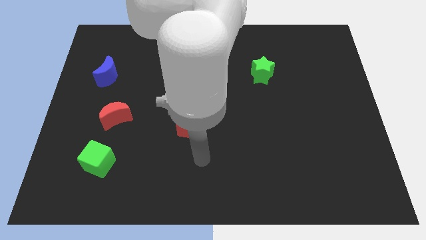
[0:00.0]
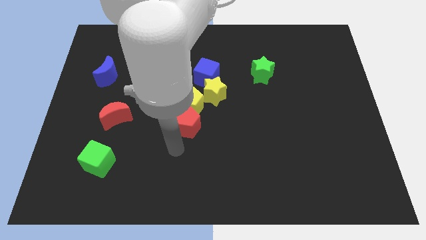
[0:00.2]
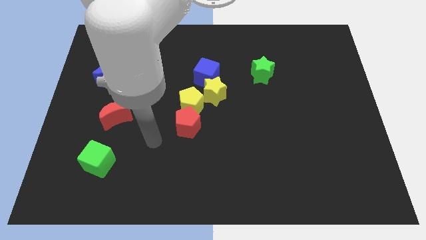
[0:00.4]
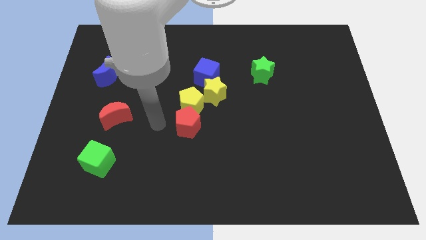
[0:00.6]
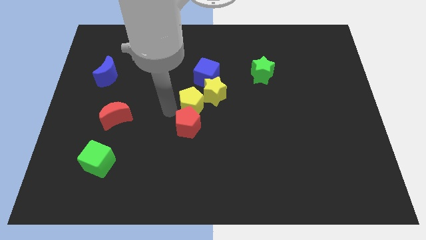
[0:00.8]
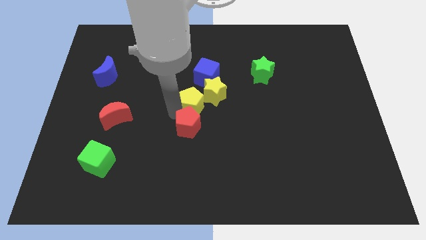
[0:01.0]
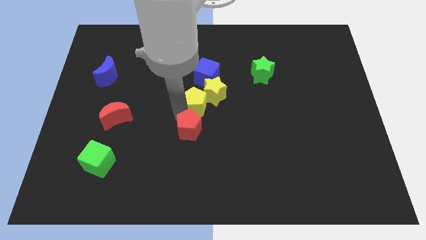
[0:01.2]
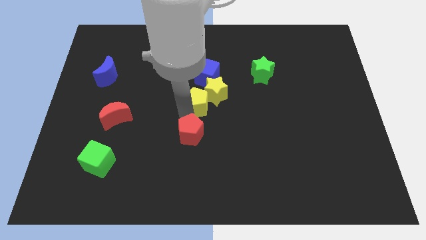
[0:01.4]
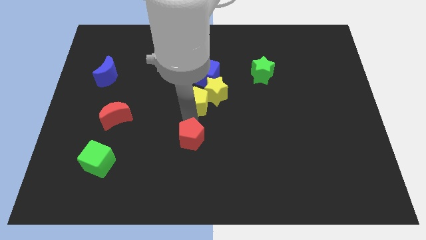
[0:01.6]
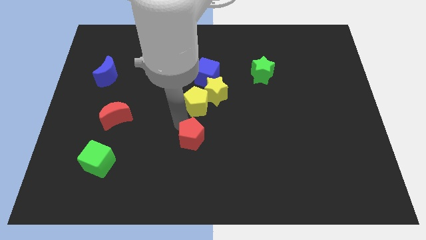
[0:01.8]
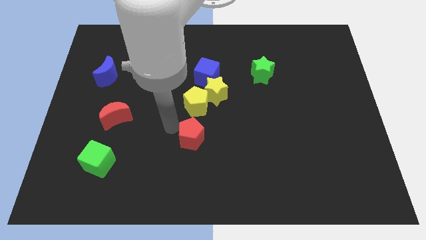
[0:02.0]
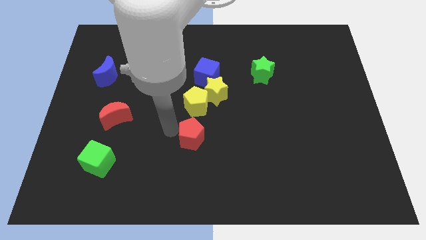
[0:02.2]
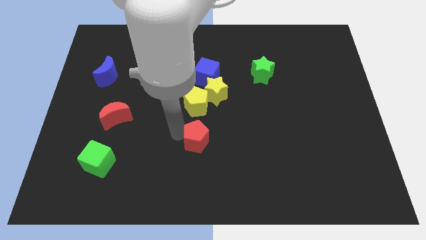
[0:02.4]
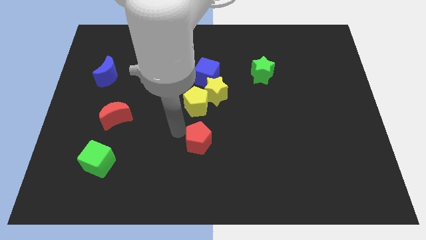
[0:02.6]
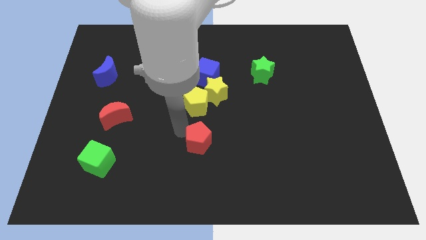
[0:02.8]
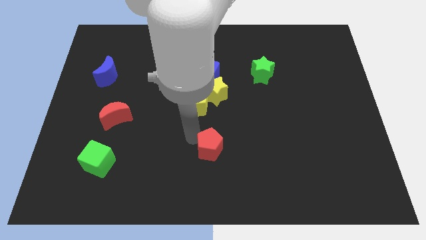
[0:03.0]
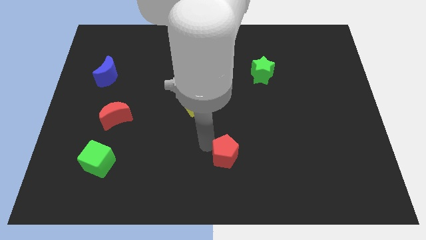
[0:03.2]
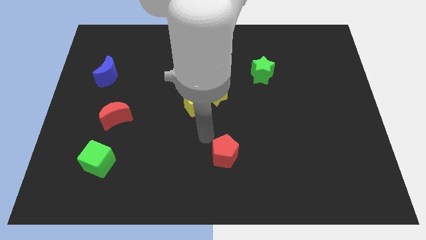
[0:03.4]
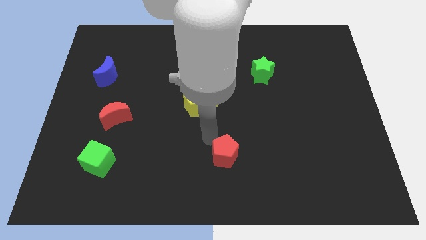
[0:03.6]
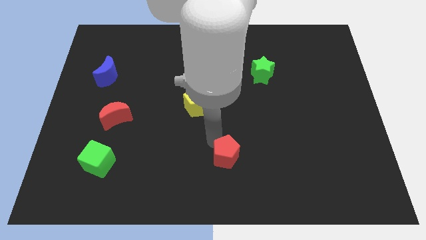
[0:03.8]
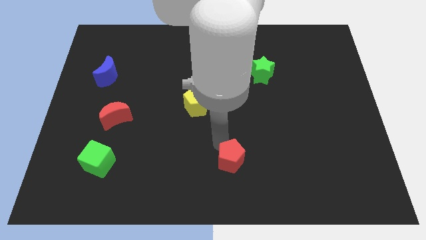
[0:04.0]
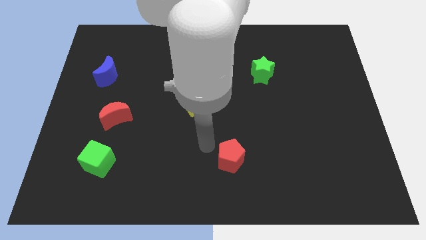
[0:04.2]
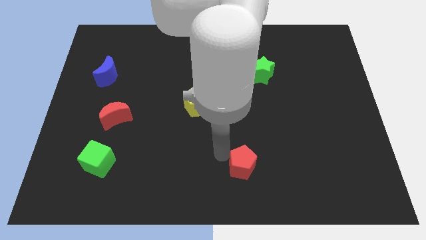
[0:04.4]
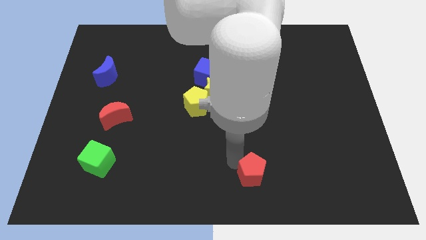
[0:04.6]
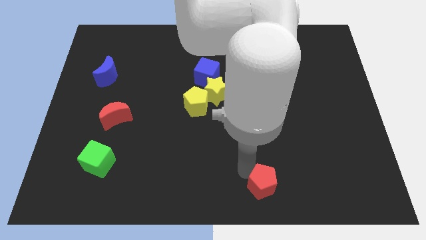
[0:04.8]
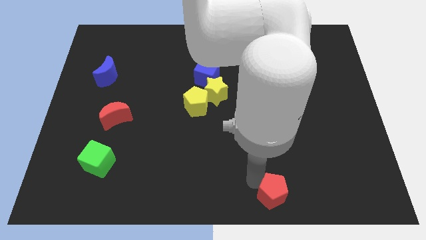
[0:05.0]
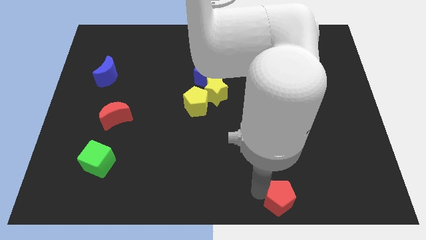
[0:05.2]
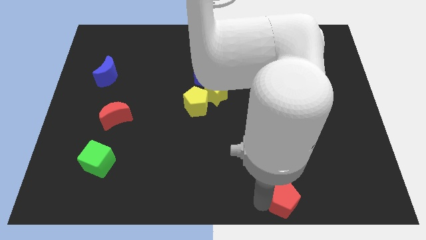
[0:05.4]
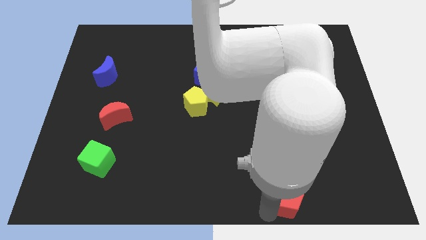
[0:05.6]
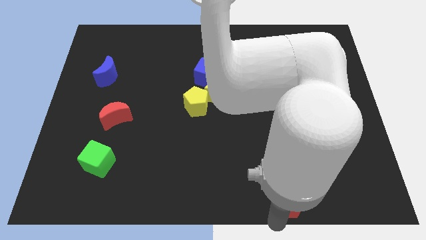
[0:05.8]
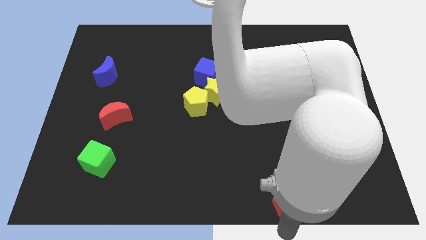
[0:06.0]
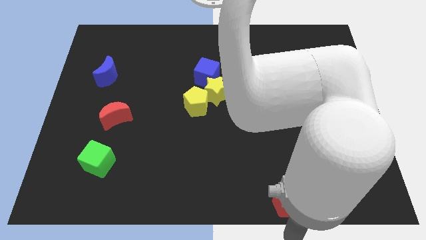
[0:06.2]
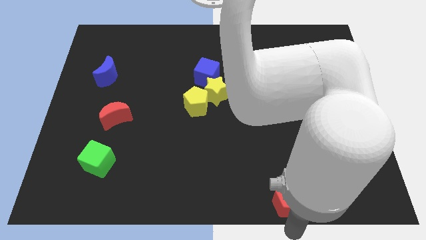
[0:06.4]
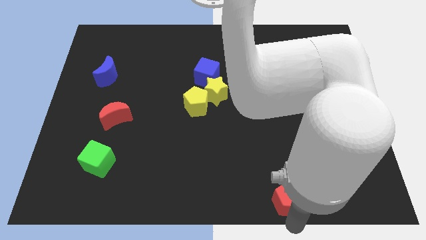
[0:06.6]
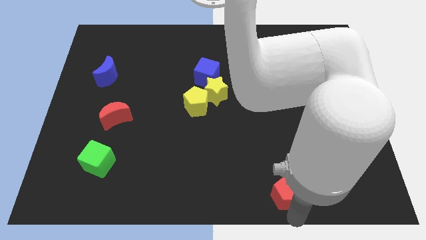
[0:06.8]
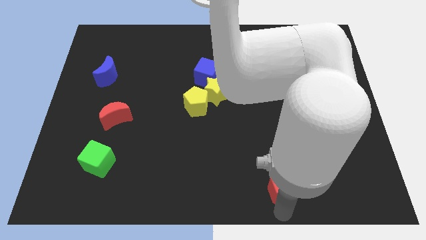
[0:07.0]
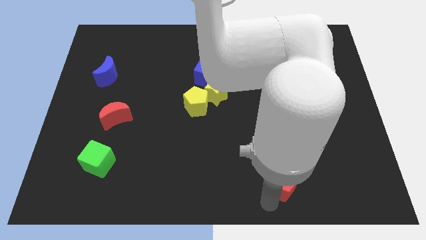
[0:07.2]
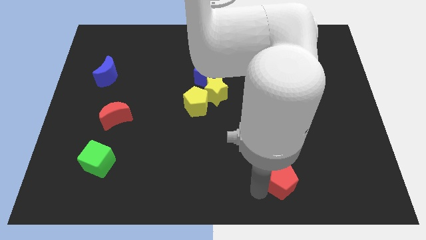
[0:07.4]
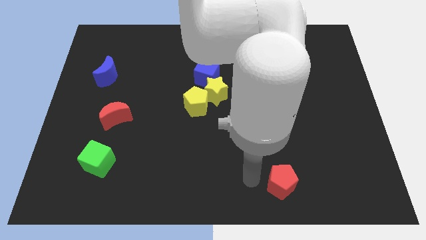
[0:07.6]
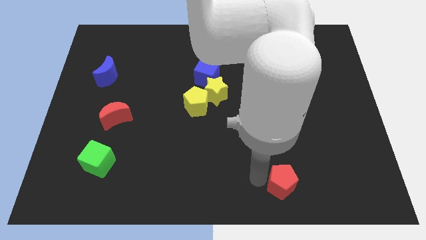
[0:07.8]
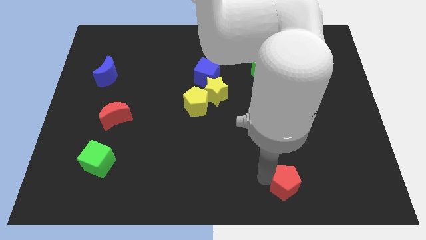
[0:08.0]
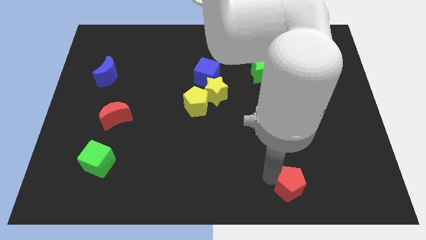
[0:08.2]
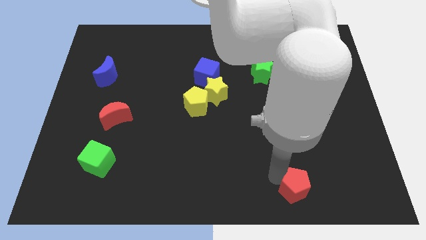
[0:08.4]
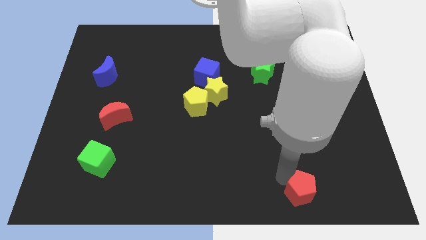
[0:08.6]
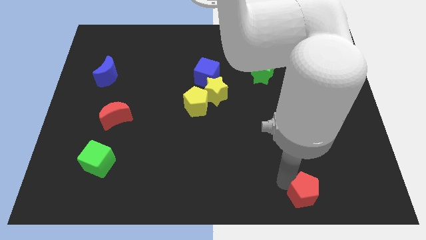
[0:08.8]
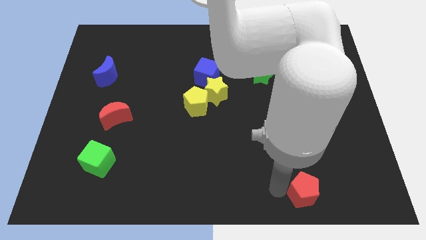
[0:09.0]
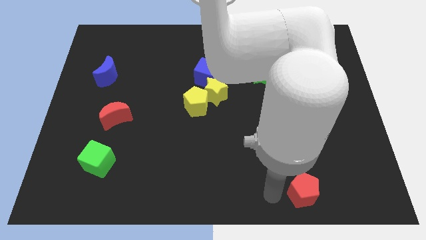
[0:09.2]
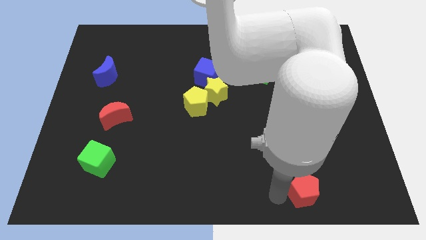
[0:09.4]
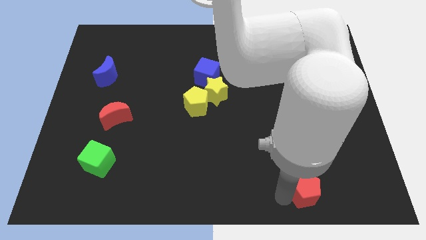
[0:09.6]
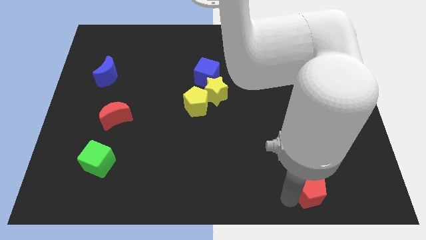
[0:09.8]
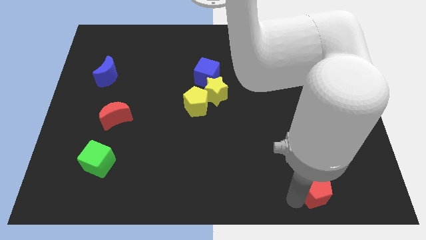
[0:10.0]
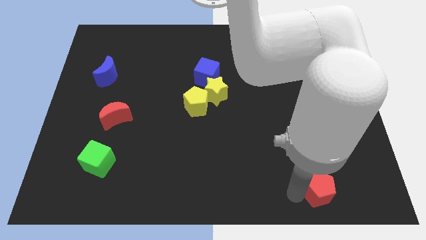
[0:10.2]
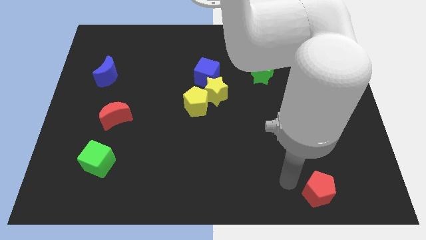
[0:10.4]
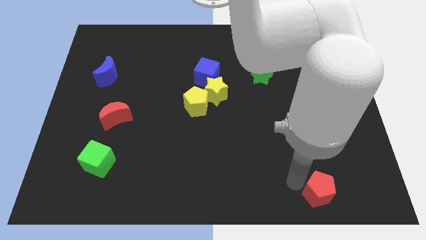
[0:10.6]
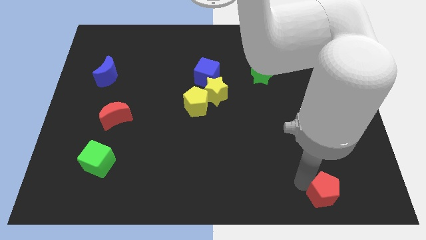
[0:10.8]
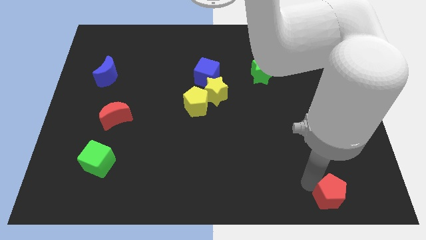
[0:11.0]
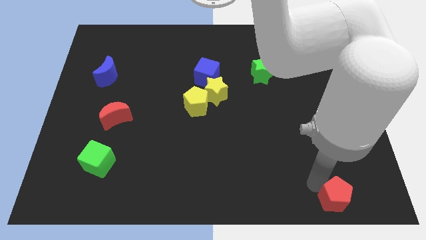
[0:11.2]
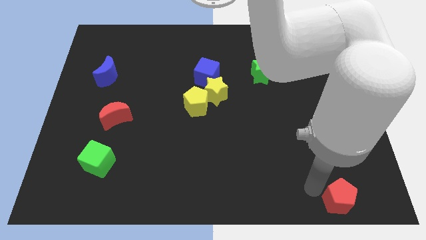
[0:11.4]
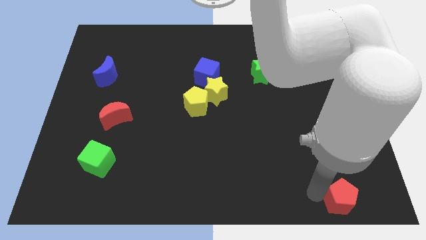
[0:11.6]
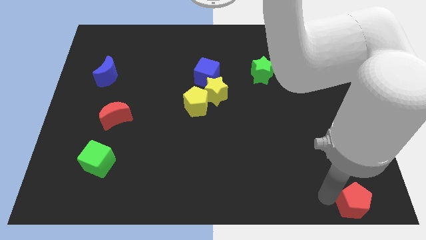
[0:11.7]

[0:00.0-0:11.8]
move the red pentagon to the bottom right
